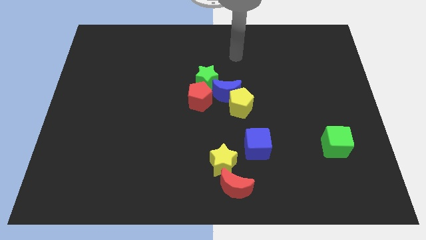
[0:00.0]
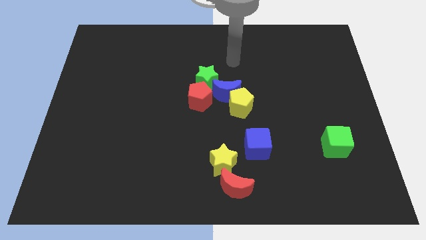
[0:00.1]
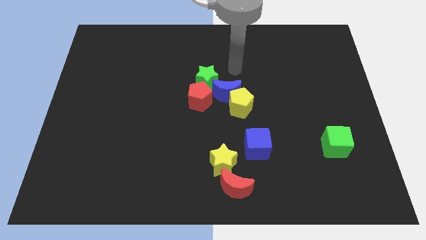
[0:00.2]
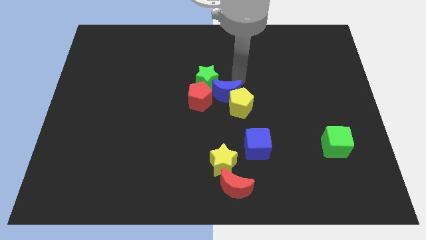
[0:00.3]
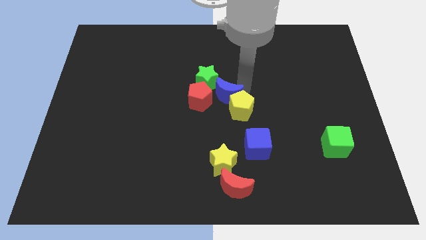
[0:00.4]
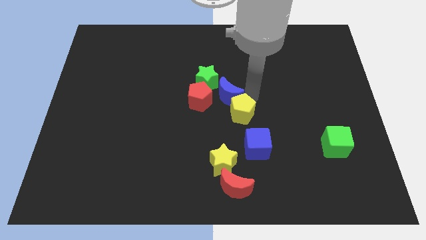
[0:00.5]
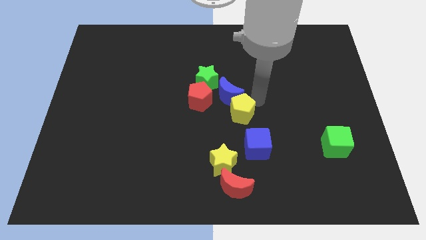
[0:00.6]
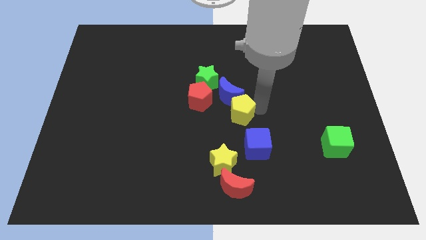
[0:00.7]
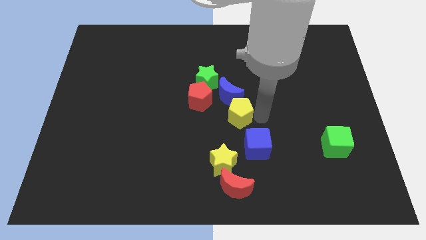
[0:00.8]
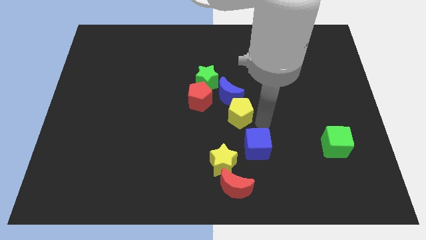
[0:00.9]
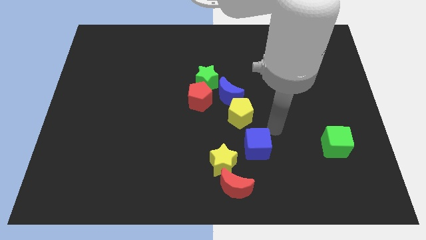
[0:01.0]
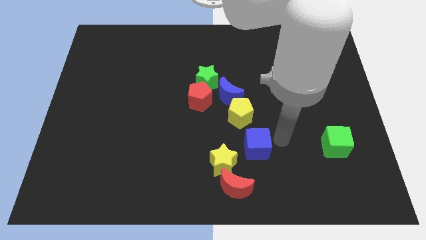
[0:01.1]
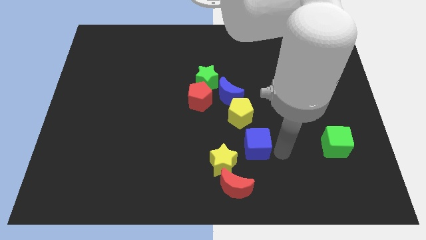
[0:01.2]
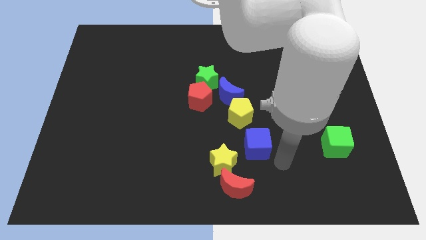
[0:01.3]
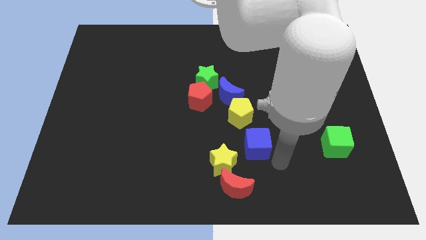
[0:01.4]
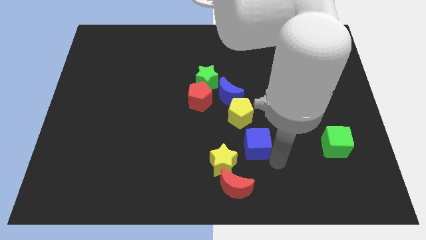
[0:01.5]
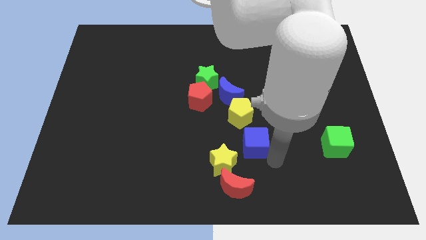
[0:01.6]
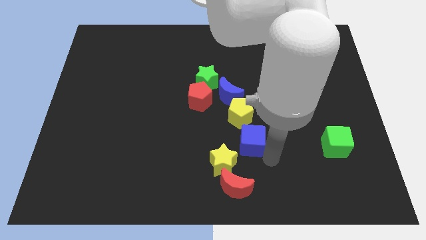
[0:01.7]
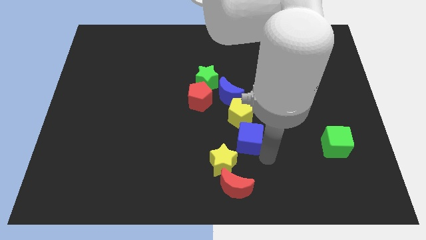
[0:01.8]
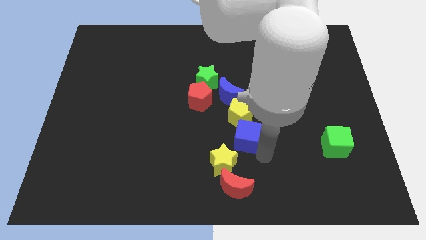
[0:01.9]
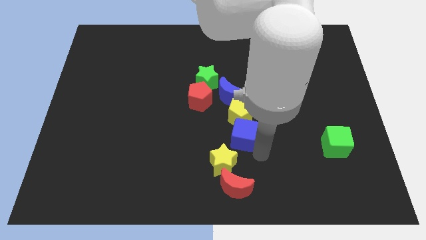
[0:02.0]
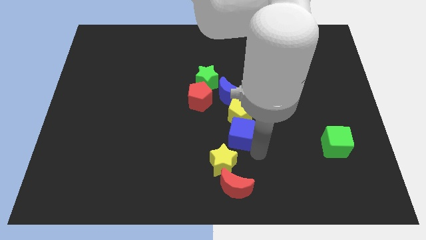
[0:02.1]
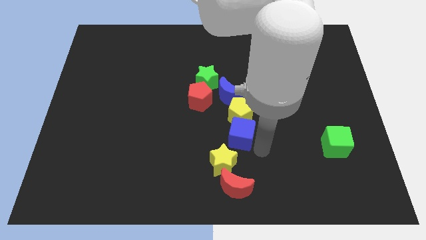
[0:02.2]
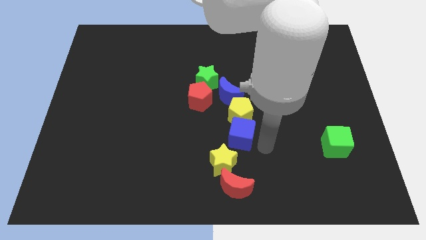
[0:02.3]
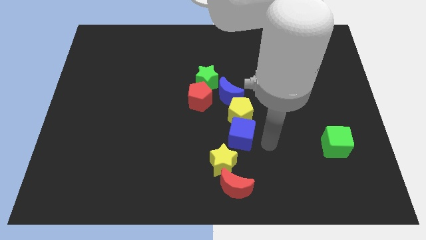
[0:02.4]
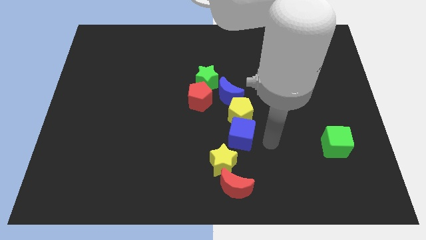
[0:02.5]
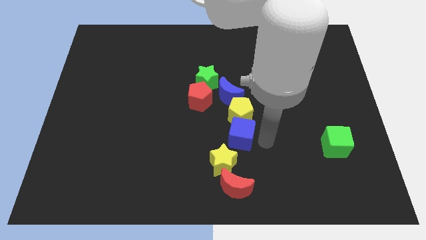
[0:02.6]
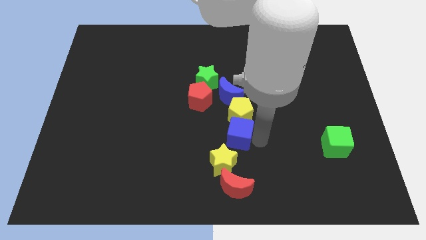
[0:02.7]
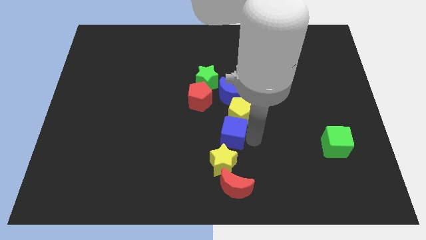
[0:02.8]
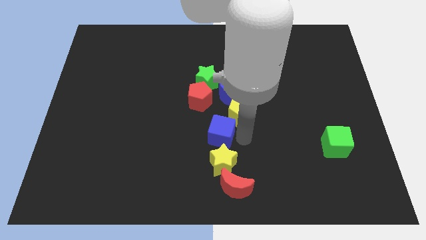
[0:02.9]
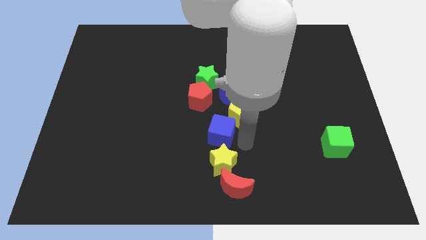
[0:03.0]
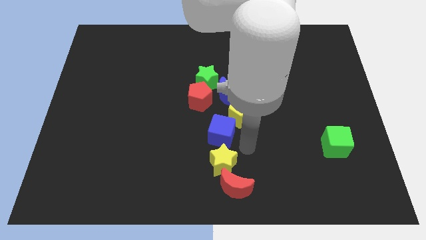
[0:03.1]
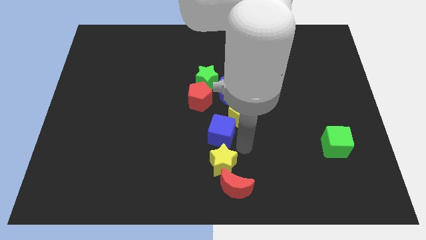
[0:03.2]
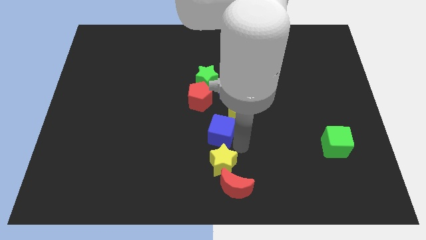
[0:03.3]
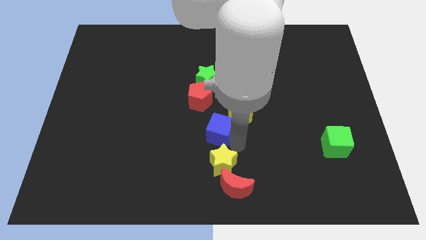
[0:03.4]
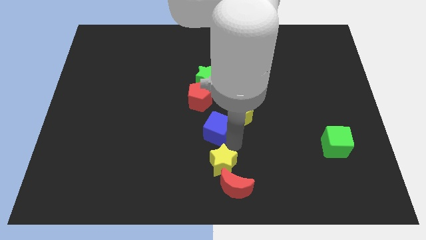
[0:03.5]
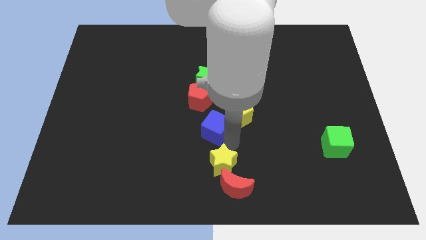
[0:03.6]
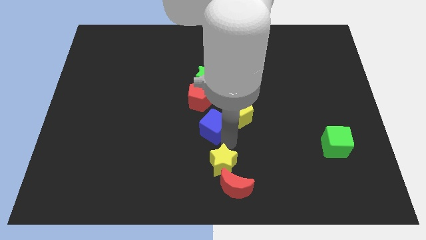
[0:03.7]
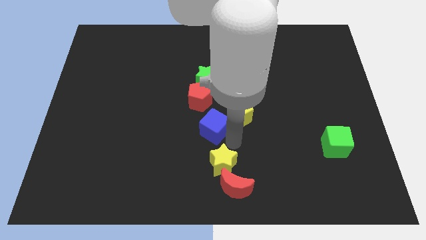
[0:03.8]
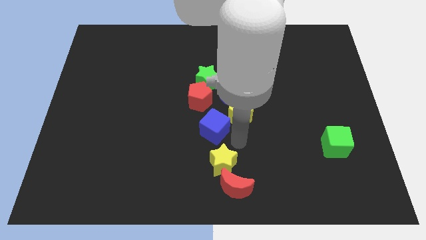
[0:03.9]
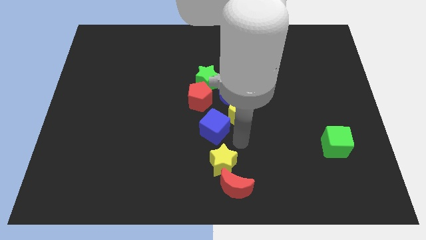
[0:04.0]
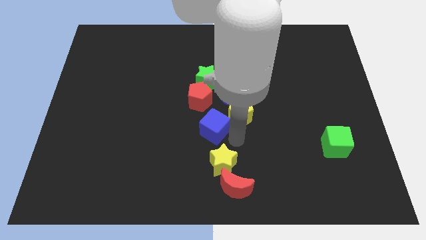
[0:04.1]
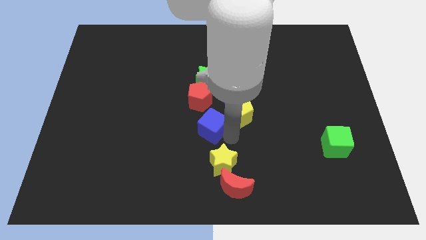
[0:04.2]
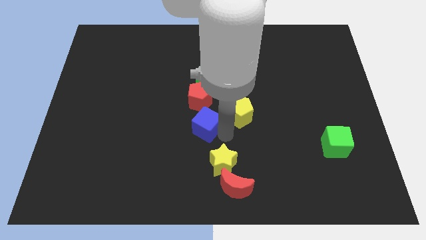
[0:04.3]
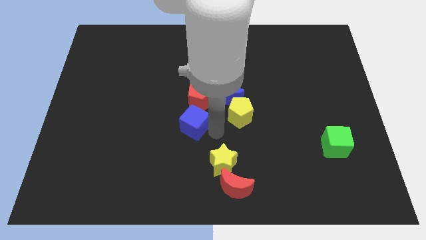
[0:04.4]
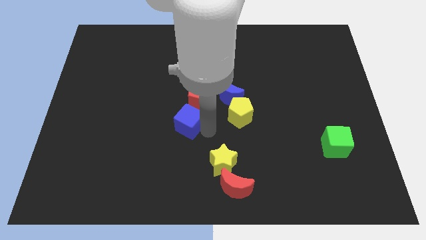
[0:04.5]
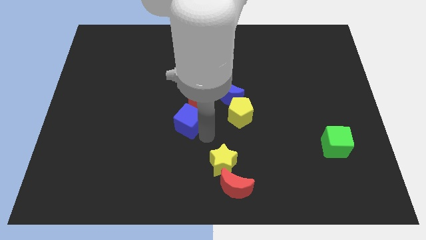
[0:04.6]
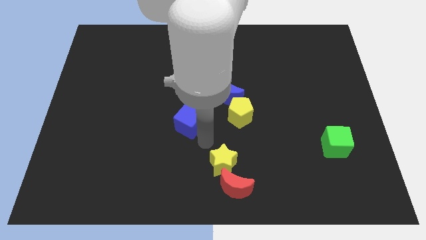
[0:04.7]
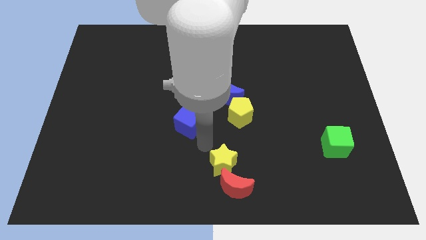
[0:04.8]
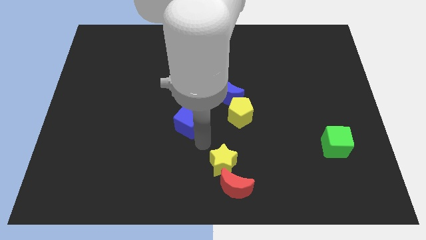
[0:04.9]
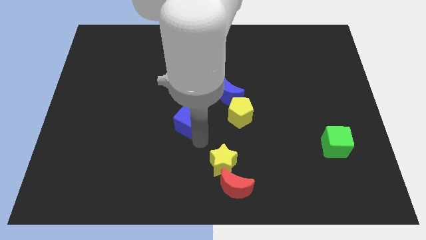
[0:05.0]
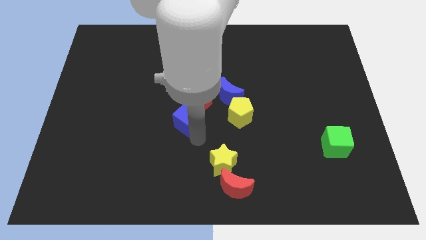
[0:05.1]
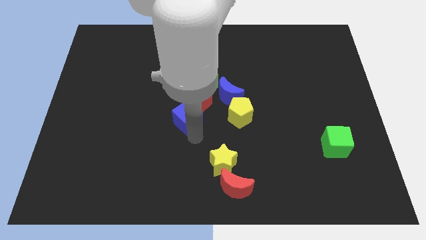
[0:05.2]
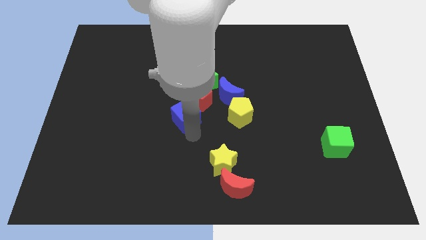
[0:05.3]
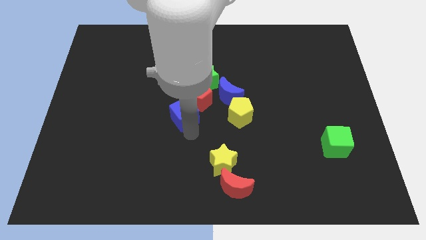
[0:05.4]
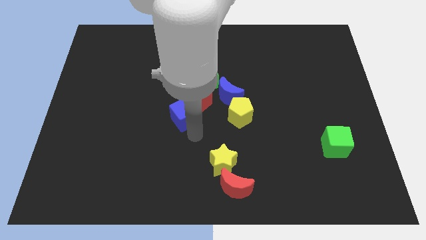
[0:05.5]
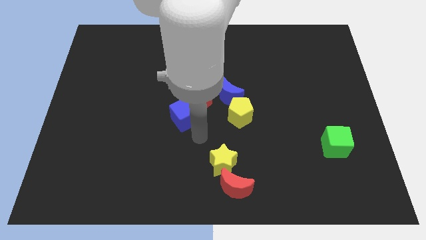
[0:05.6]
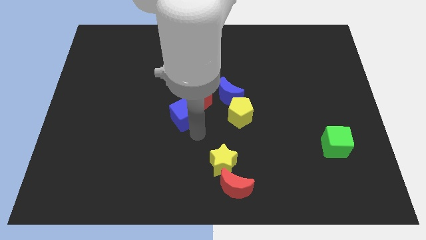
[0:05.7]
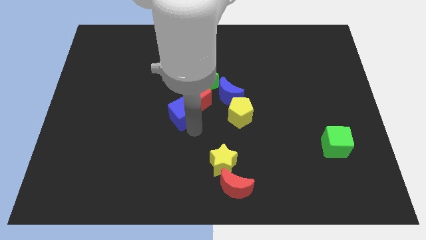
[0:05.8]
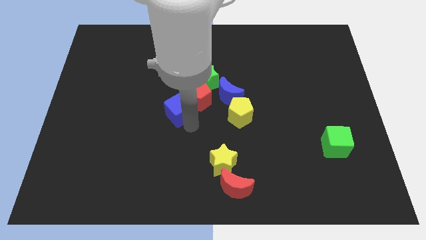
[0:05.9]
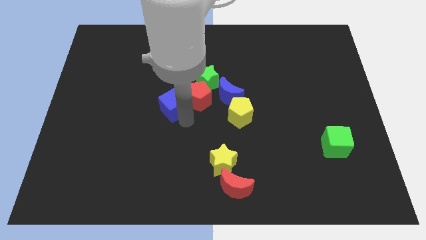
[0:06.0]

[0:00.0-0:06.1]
push the blue cube diagonally upwards and left

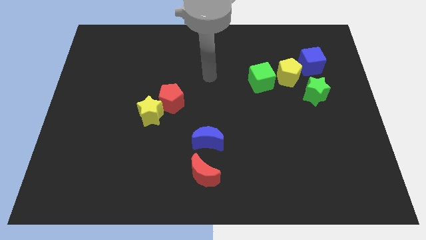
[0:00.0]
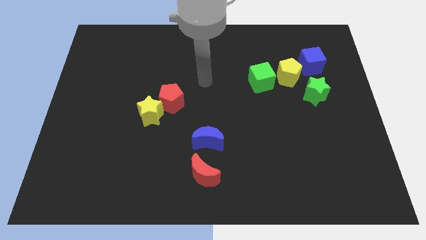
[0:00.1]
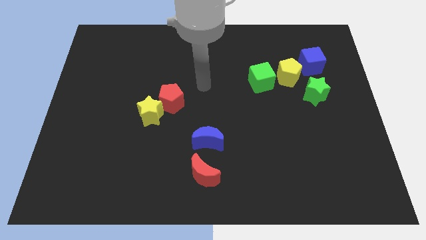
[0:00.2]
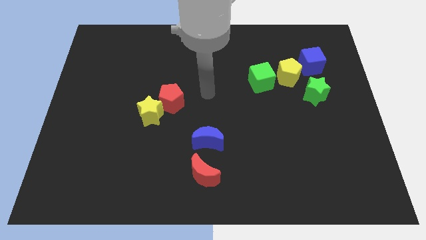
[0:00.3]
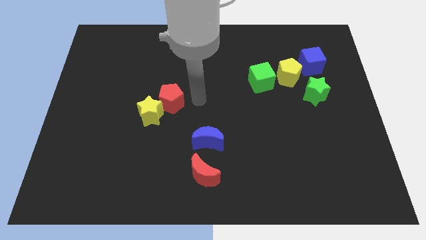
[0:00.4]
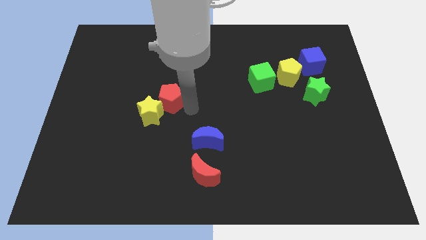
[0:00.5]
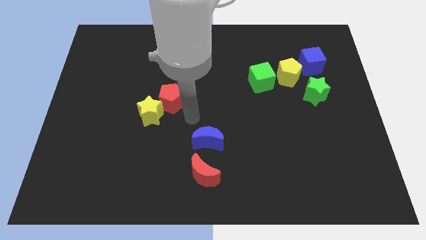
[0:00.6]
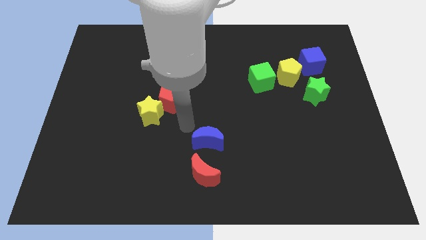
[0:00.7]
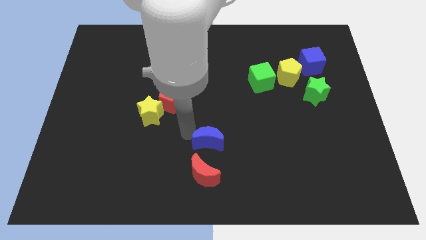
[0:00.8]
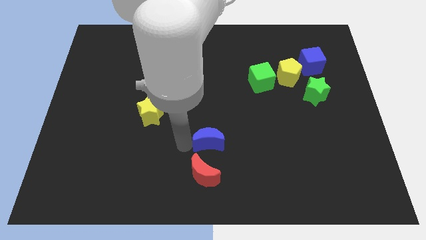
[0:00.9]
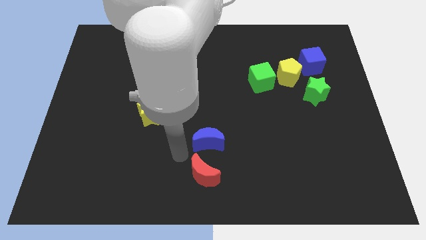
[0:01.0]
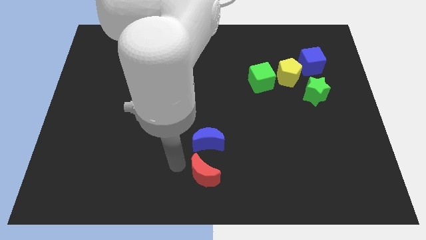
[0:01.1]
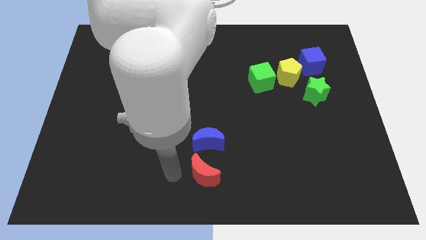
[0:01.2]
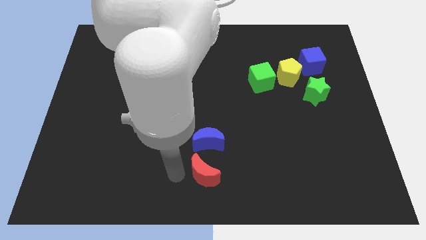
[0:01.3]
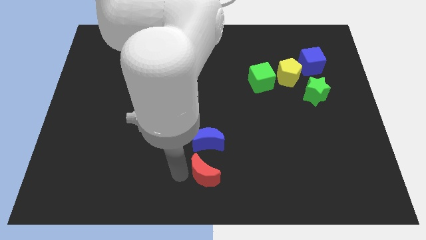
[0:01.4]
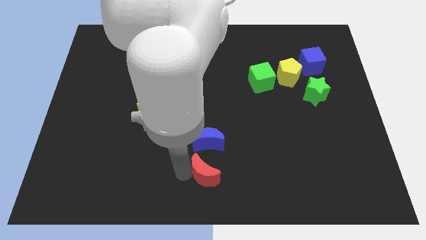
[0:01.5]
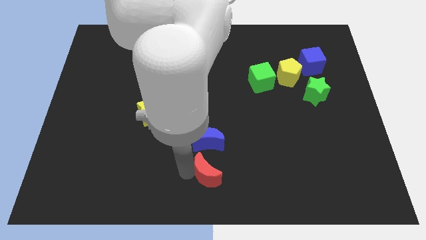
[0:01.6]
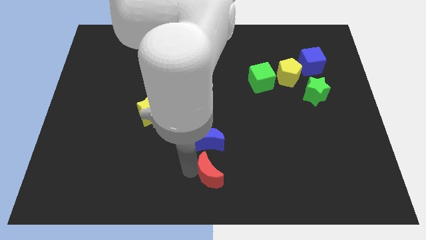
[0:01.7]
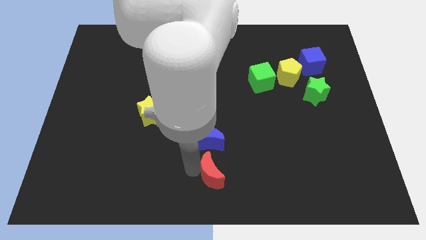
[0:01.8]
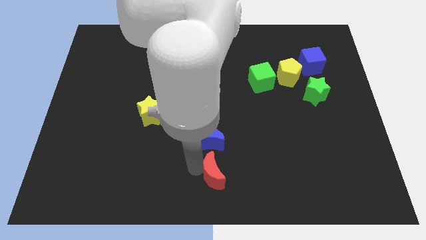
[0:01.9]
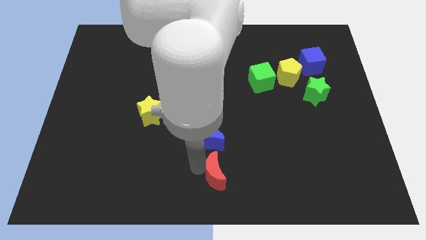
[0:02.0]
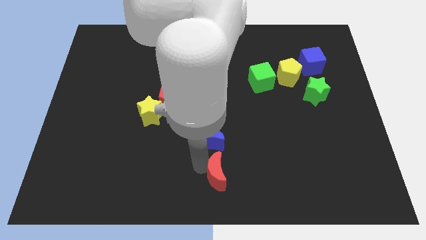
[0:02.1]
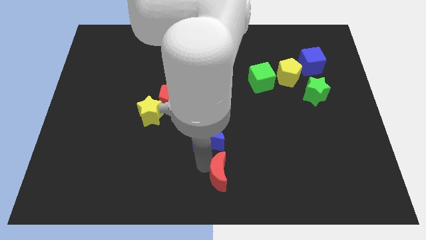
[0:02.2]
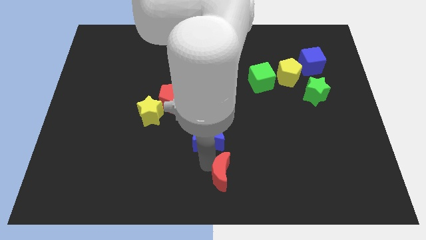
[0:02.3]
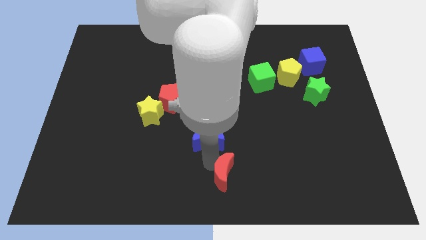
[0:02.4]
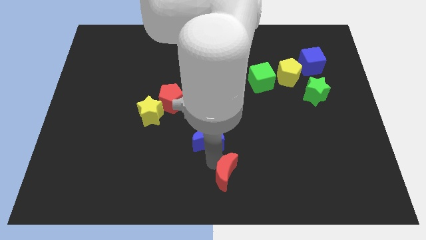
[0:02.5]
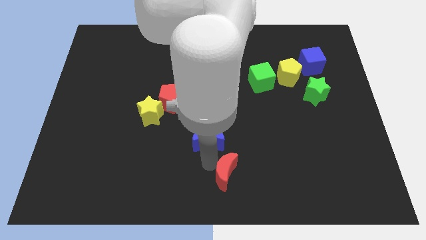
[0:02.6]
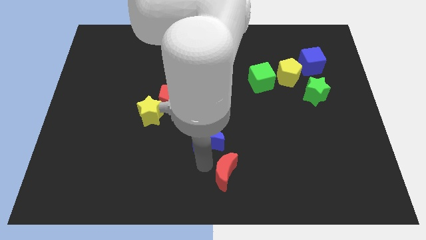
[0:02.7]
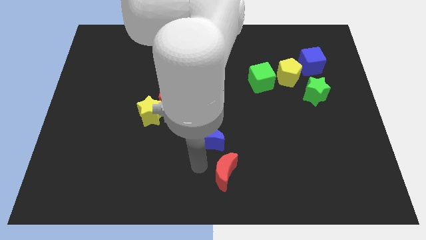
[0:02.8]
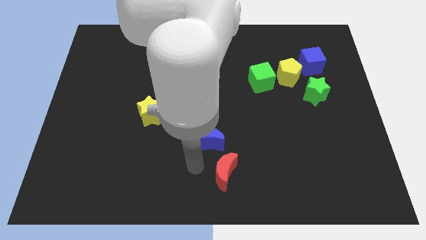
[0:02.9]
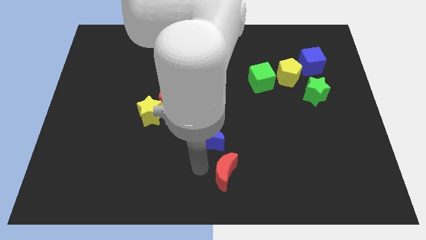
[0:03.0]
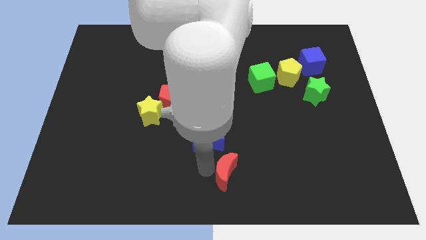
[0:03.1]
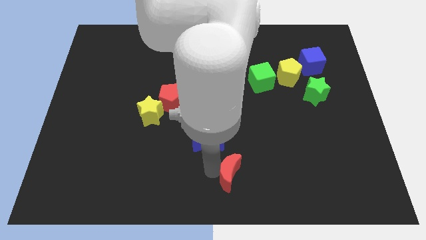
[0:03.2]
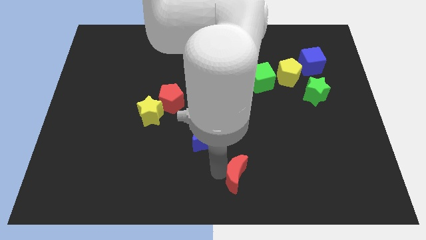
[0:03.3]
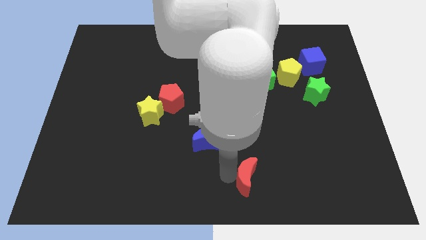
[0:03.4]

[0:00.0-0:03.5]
push the red moon to the right somewhat
